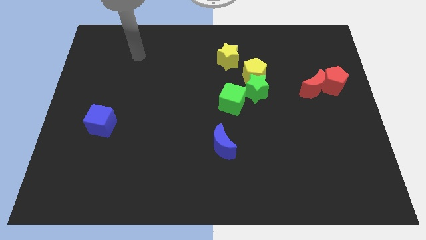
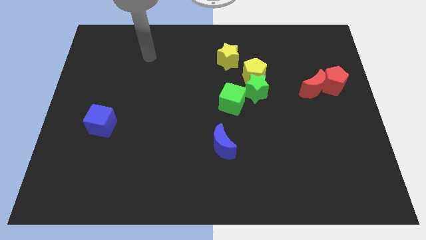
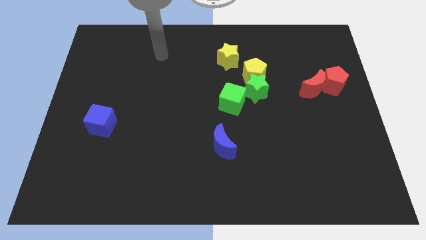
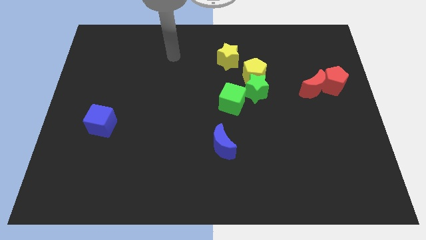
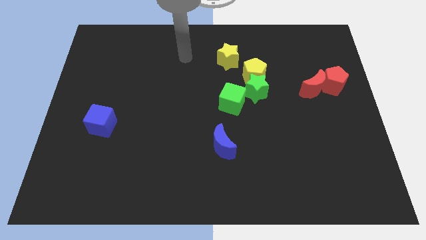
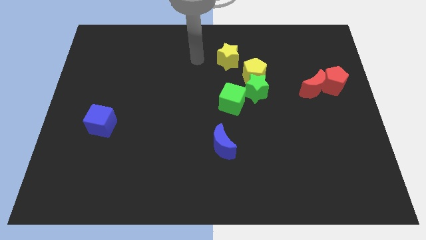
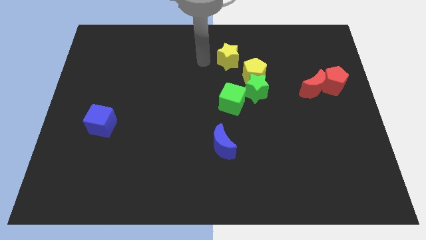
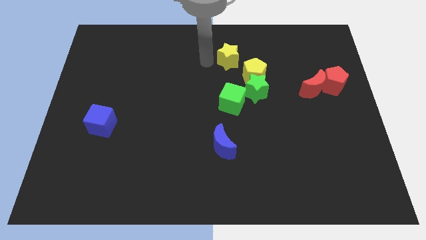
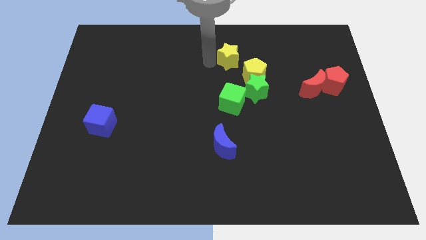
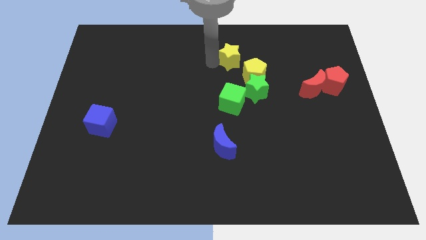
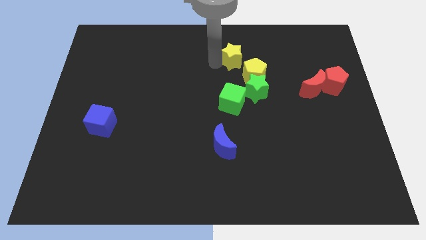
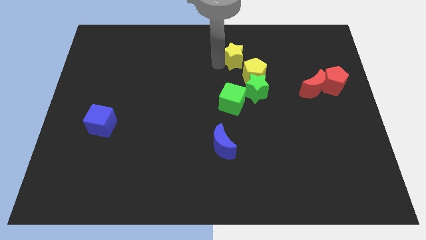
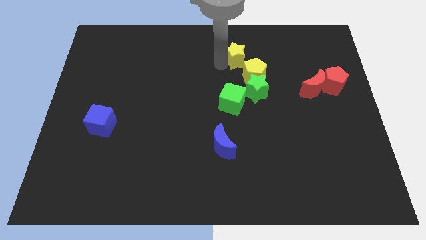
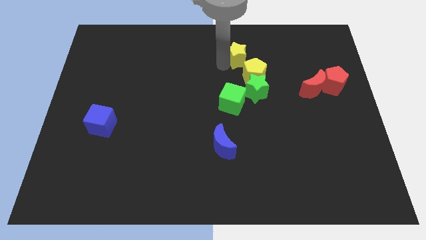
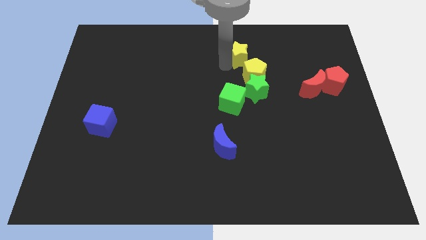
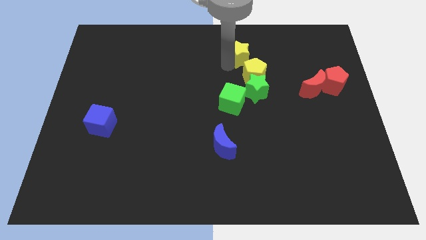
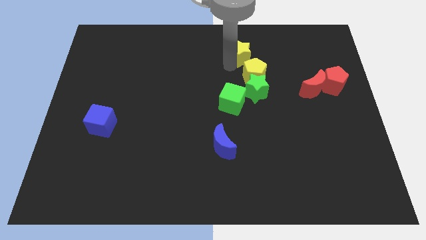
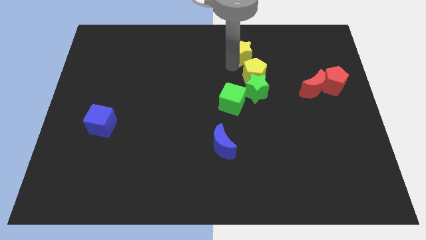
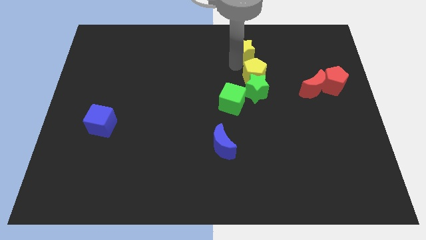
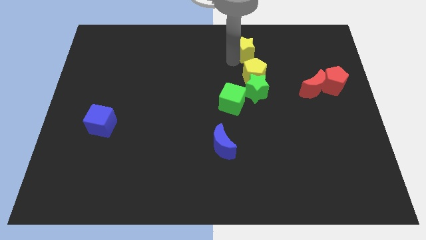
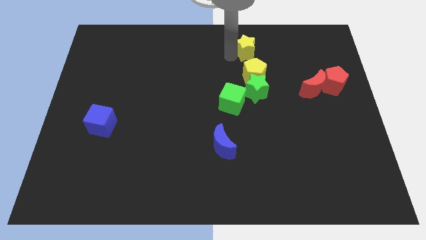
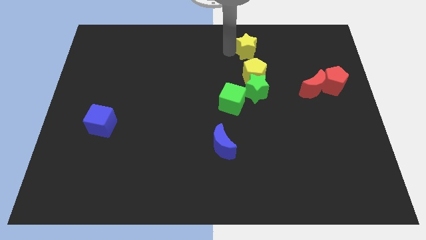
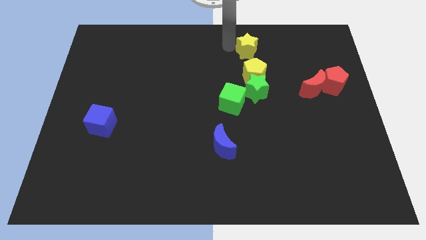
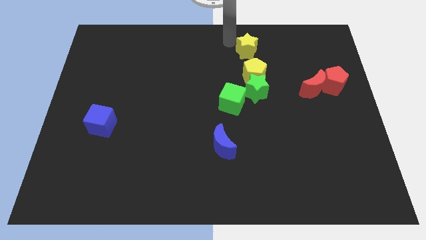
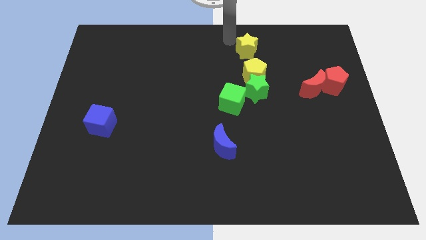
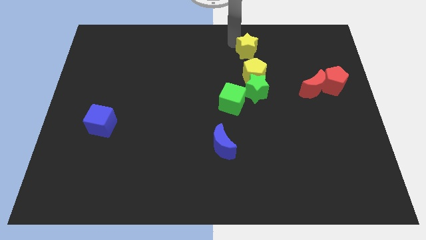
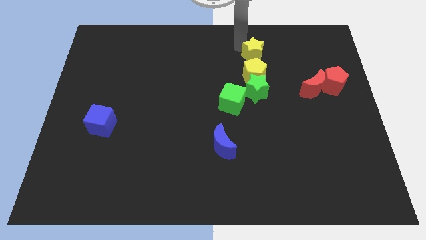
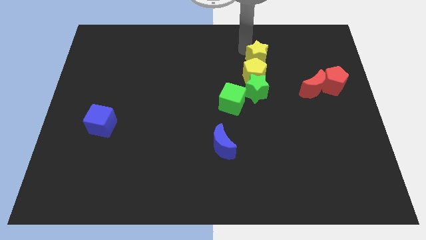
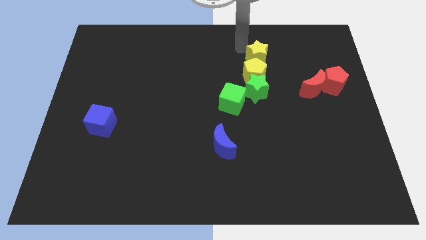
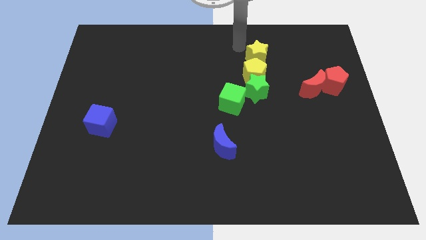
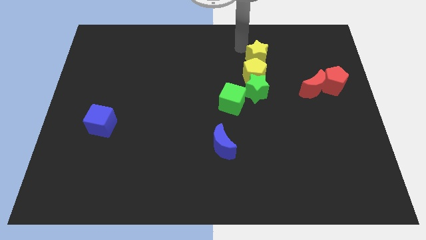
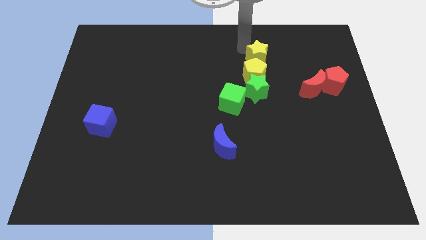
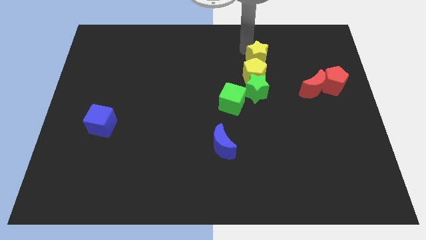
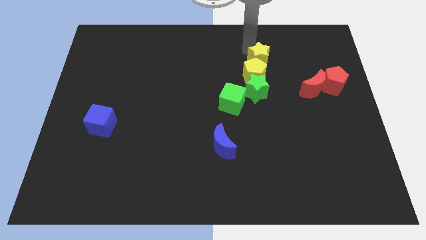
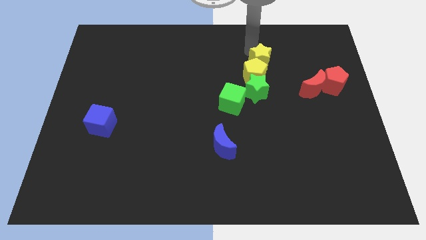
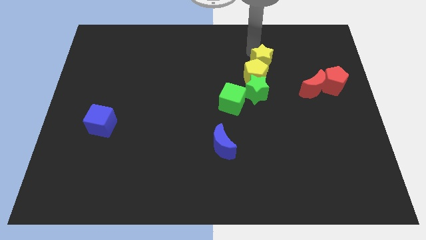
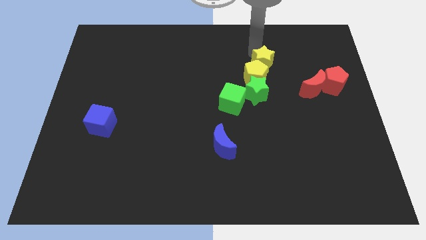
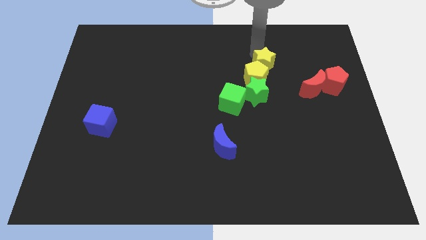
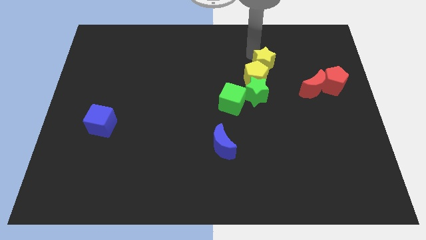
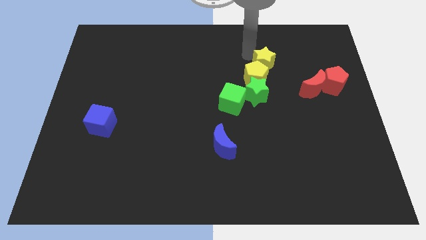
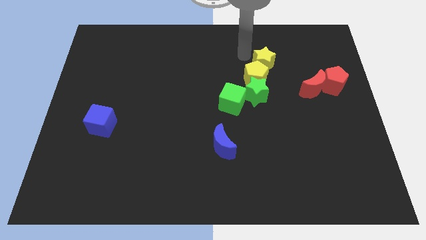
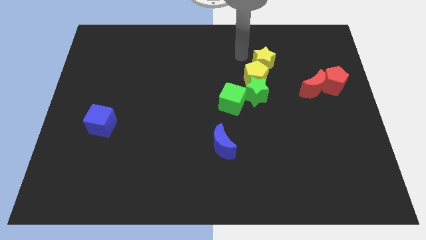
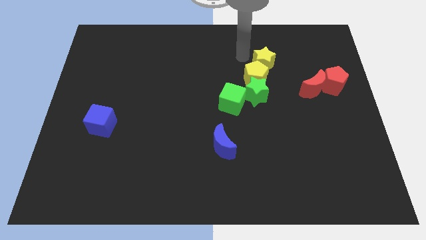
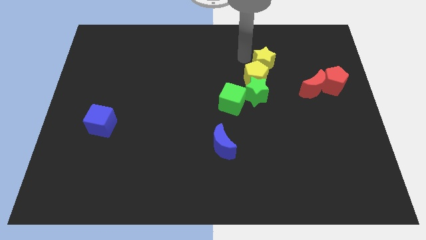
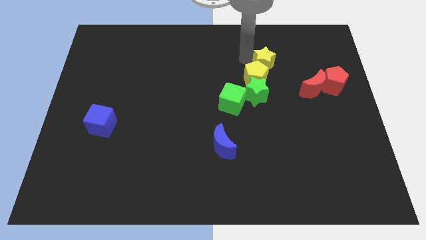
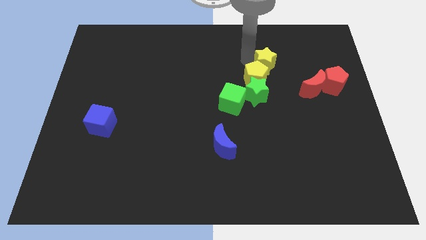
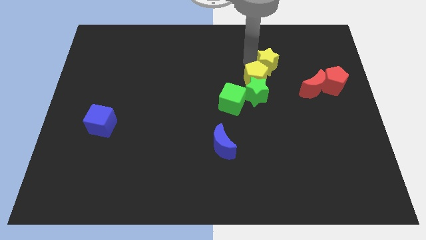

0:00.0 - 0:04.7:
slide the yellow star down and right a little

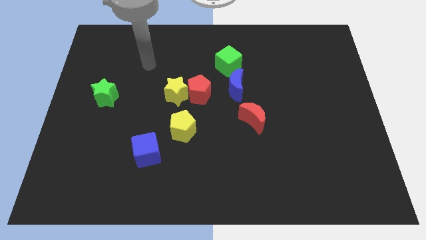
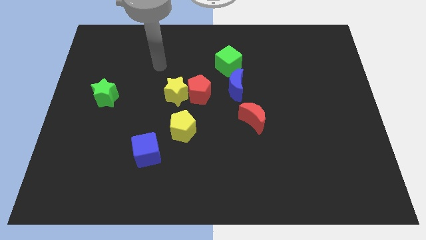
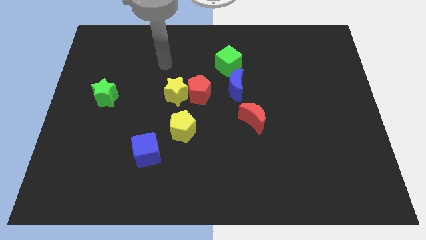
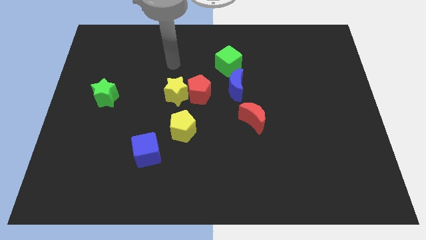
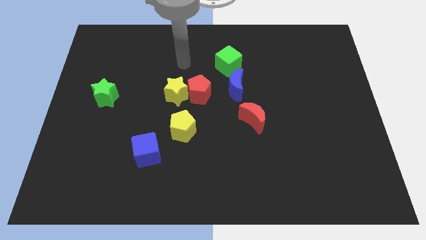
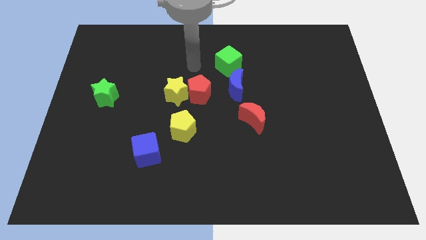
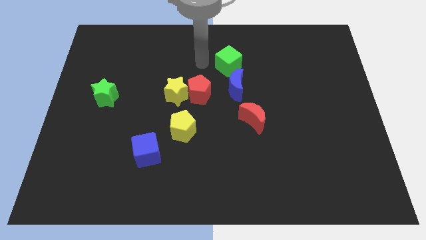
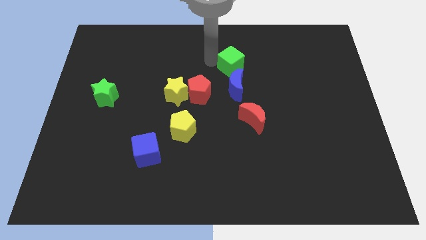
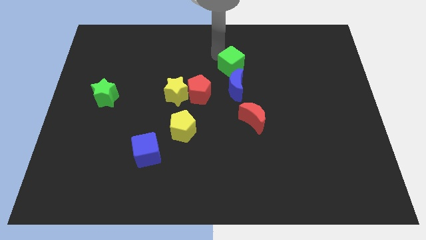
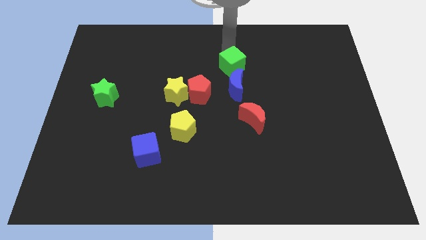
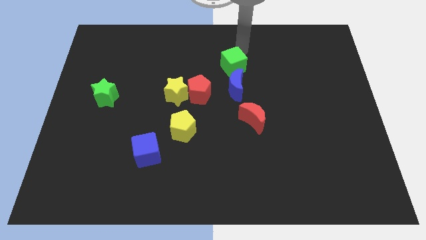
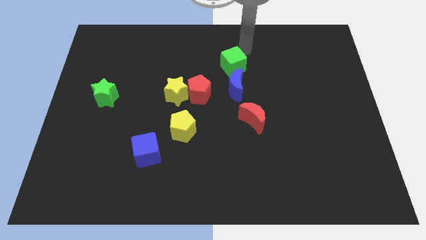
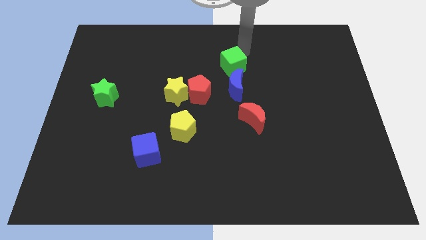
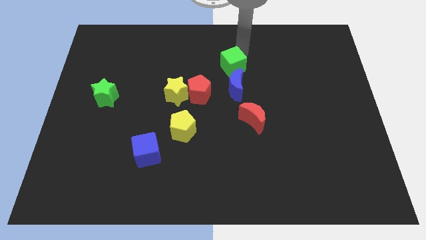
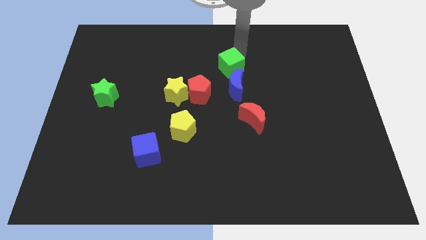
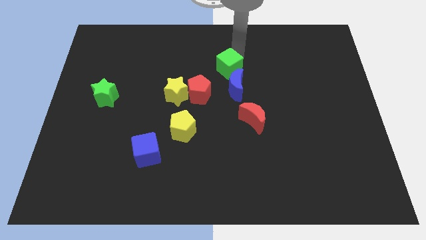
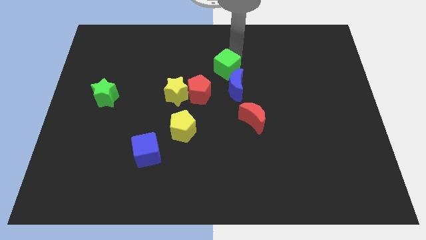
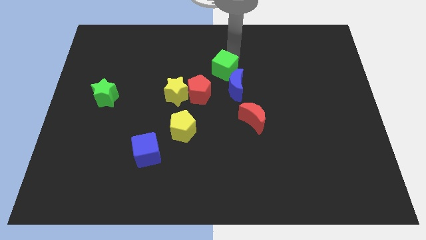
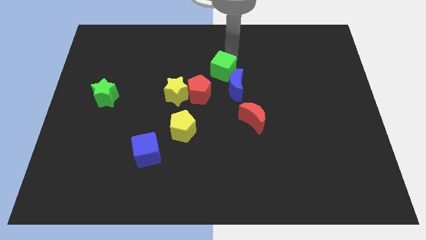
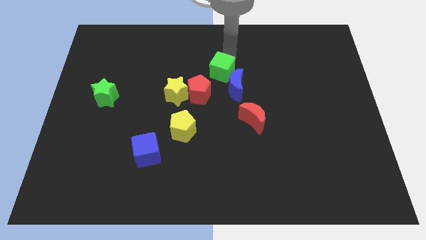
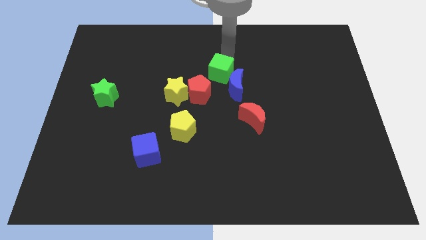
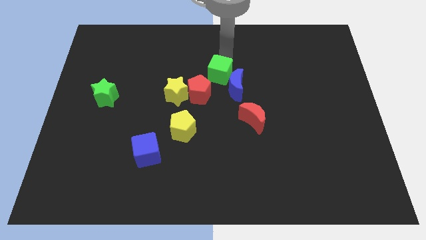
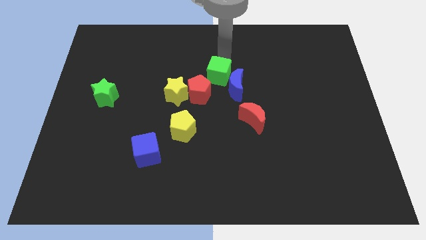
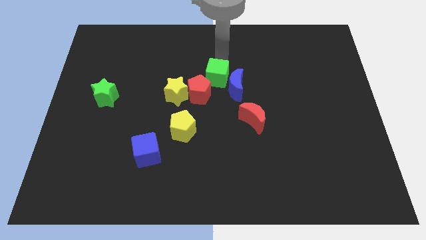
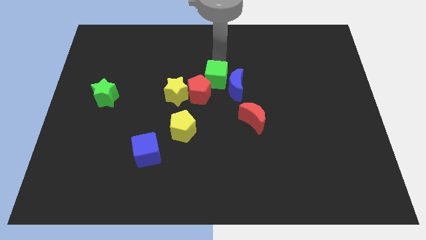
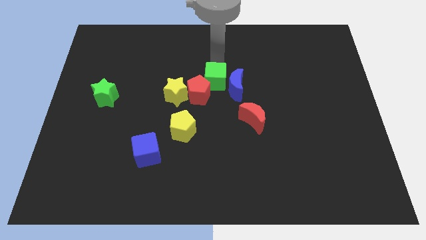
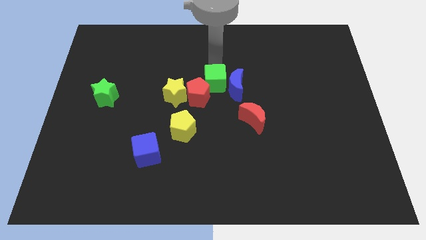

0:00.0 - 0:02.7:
push the green cube downwards and left diagonally somewhat

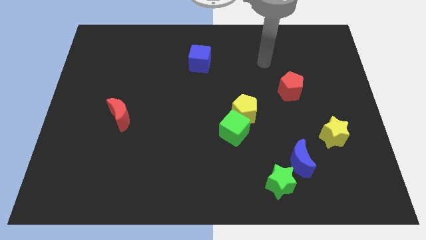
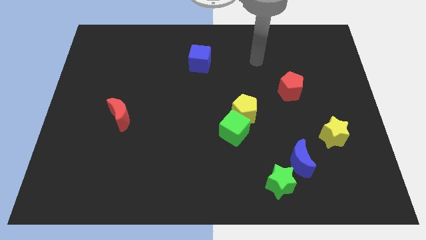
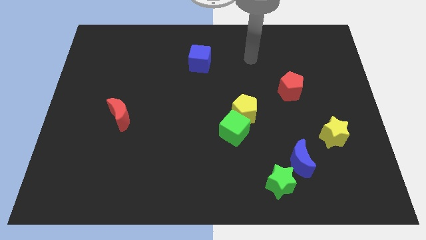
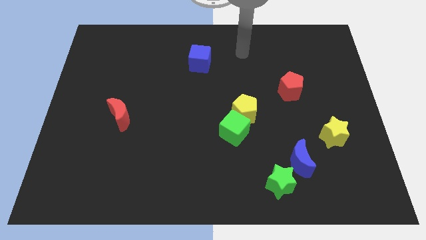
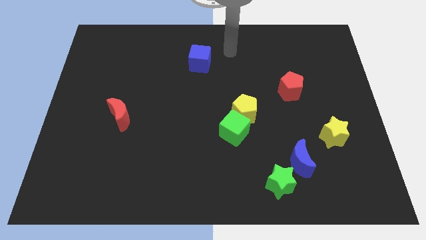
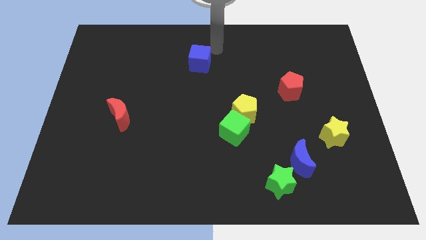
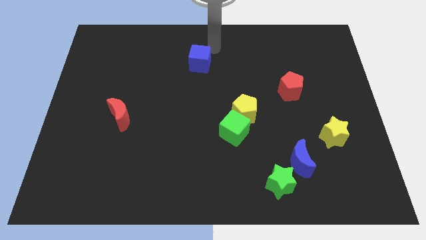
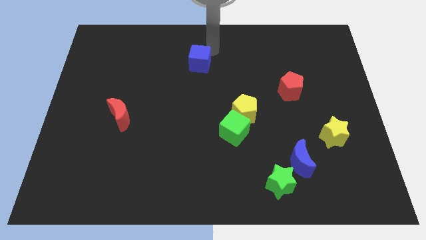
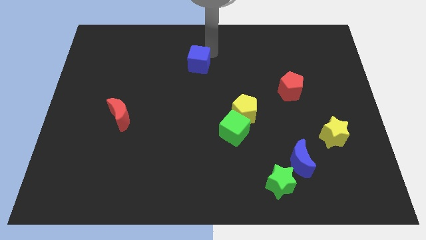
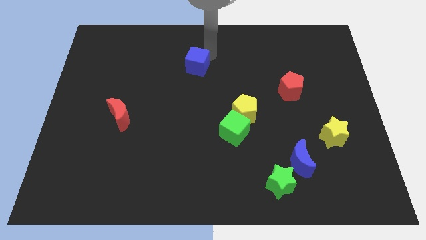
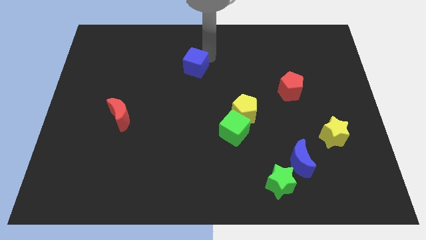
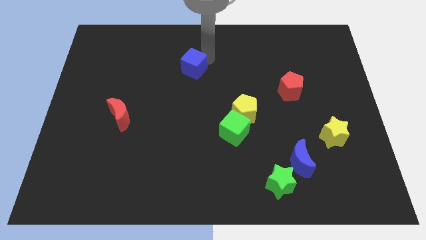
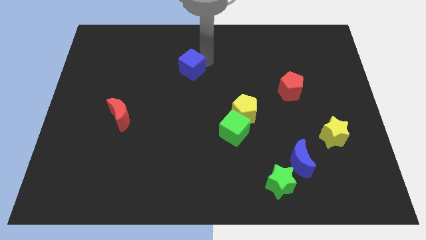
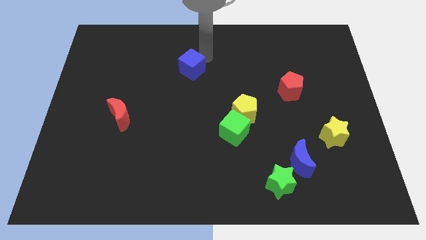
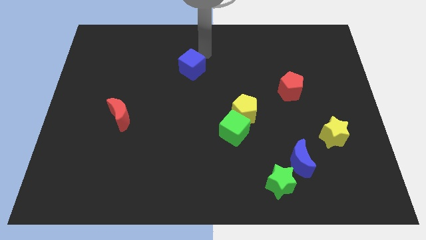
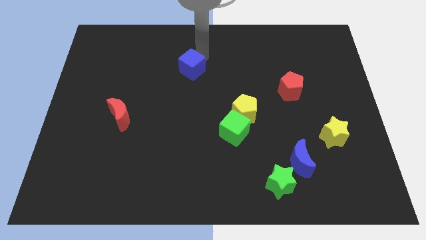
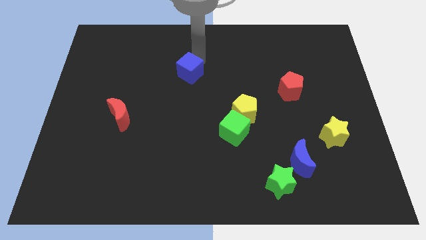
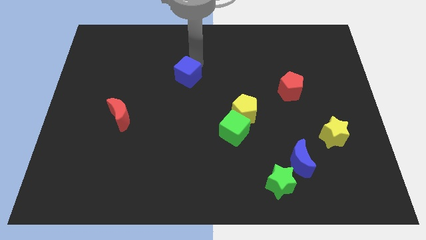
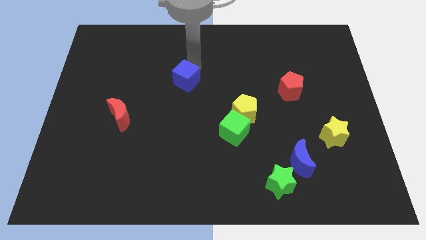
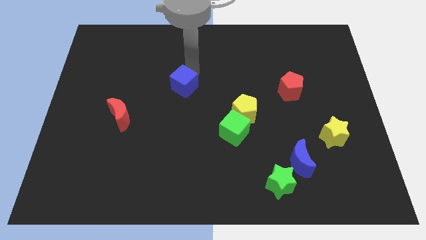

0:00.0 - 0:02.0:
push the blue cube downwards and to the left a little
